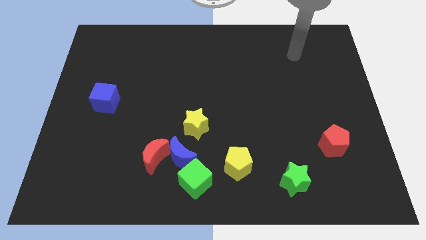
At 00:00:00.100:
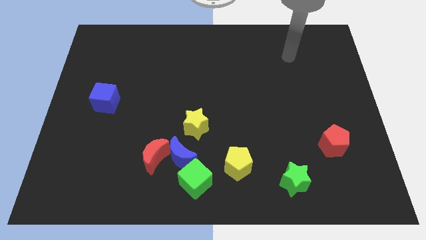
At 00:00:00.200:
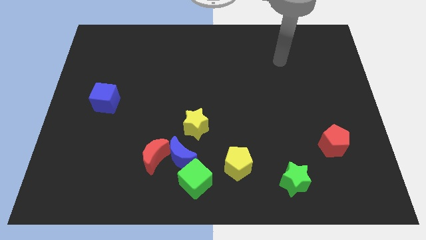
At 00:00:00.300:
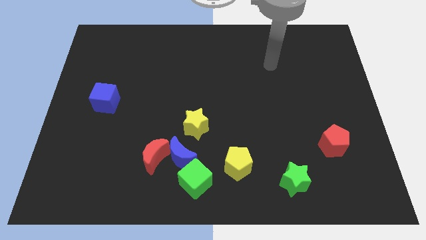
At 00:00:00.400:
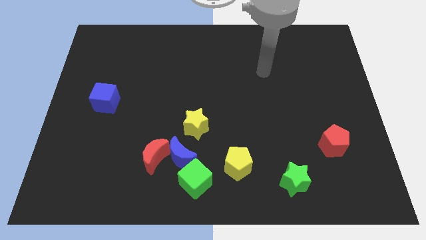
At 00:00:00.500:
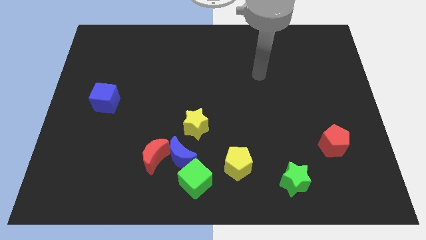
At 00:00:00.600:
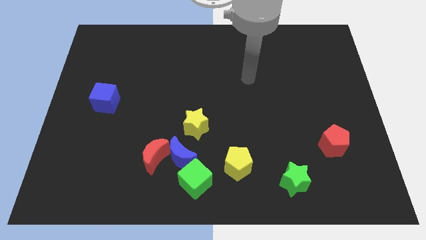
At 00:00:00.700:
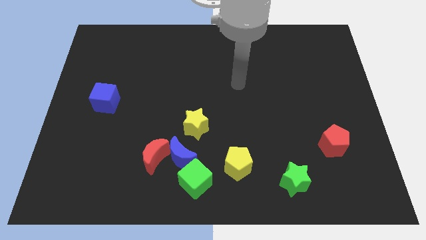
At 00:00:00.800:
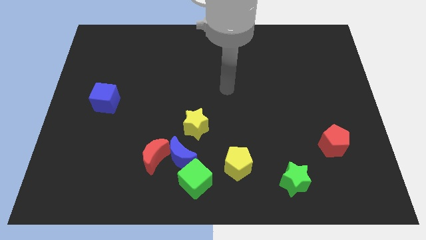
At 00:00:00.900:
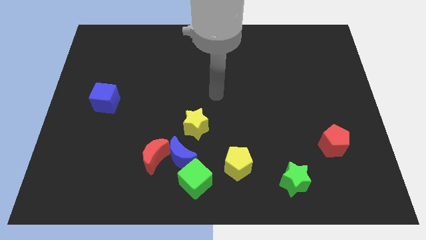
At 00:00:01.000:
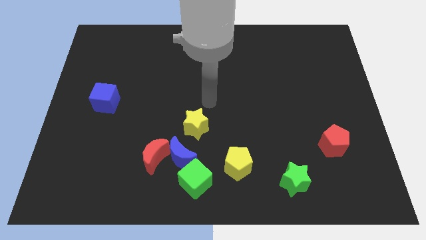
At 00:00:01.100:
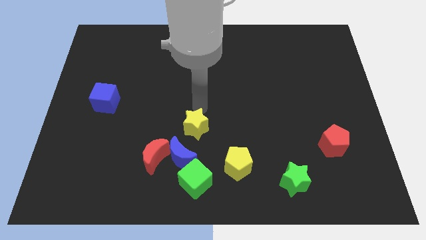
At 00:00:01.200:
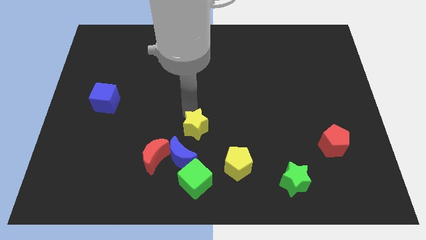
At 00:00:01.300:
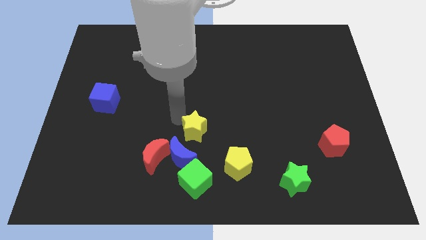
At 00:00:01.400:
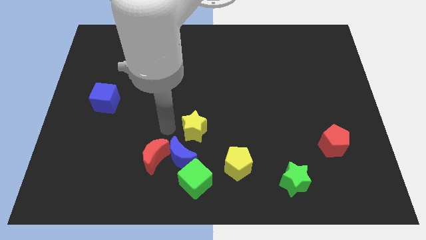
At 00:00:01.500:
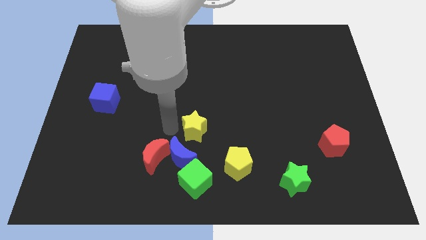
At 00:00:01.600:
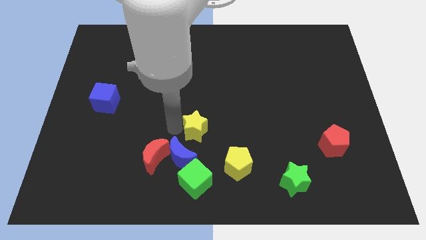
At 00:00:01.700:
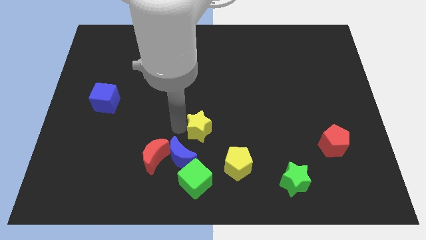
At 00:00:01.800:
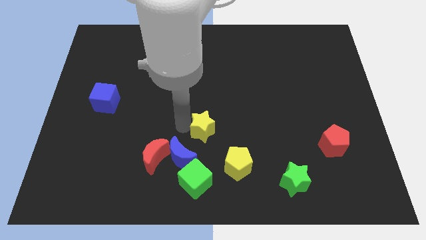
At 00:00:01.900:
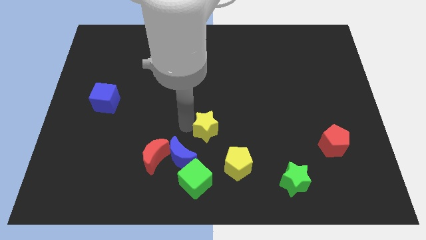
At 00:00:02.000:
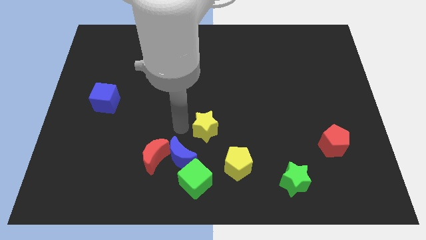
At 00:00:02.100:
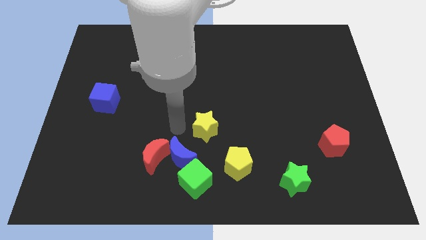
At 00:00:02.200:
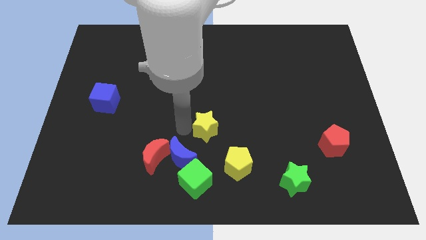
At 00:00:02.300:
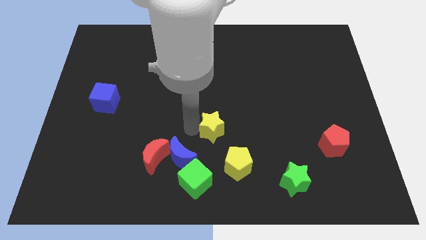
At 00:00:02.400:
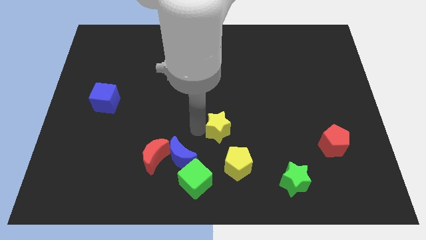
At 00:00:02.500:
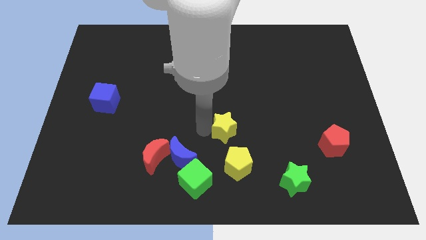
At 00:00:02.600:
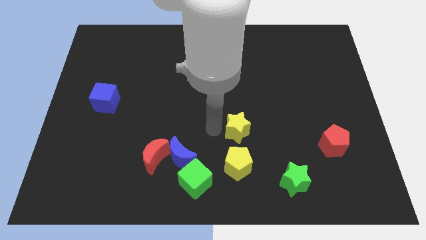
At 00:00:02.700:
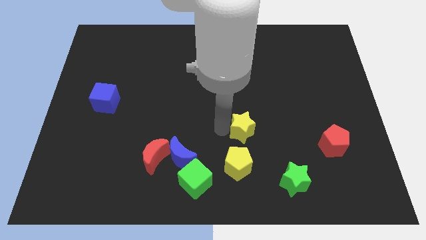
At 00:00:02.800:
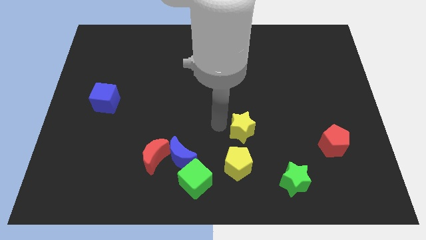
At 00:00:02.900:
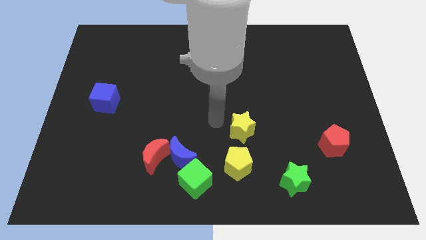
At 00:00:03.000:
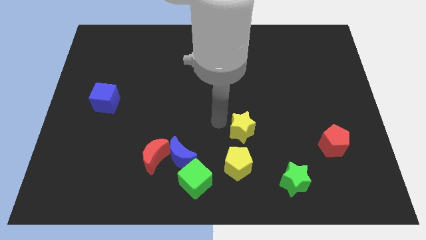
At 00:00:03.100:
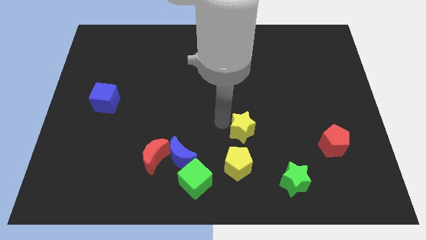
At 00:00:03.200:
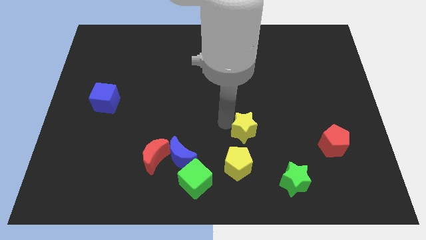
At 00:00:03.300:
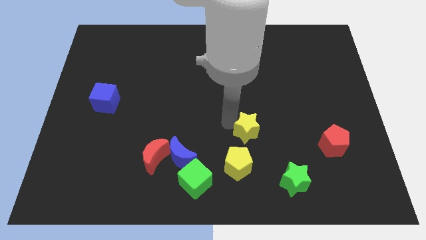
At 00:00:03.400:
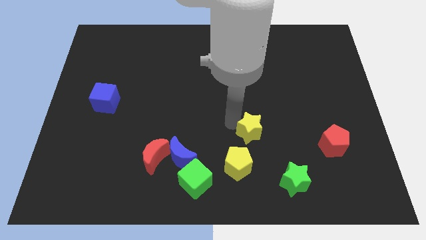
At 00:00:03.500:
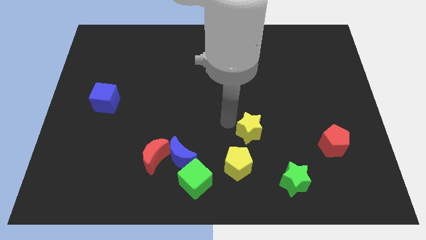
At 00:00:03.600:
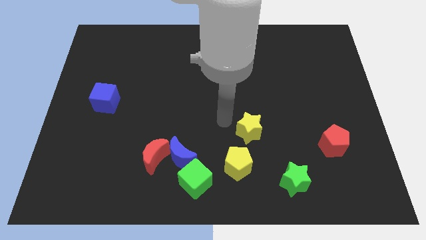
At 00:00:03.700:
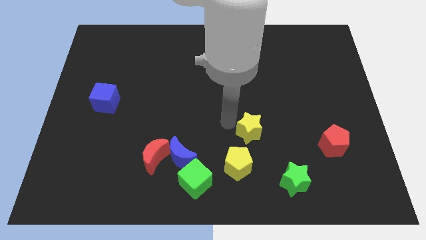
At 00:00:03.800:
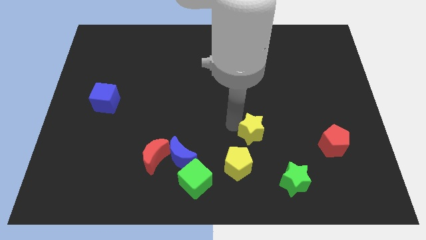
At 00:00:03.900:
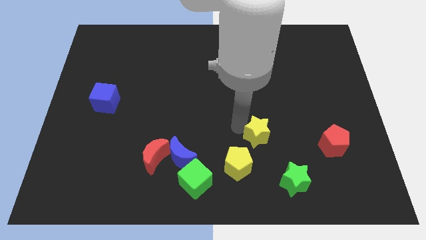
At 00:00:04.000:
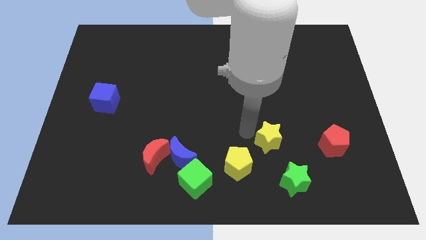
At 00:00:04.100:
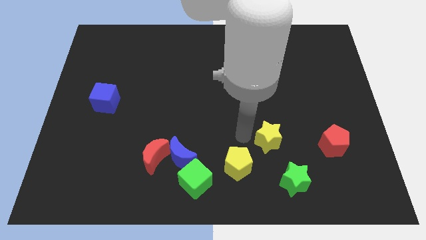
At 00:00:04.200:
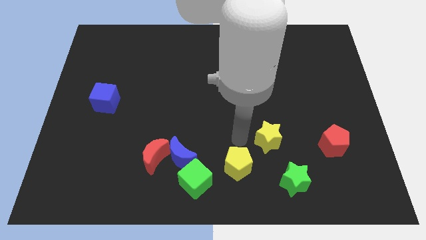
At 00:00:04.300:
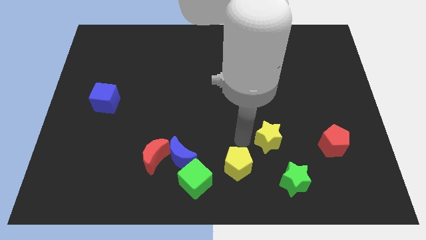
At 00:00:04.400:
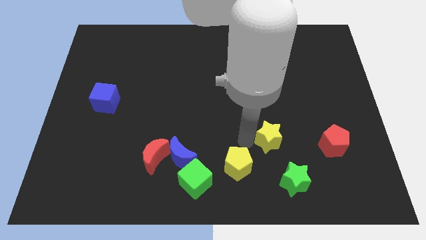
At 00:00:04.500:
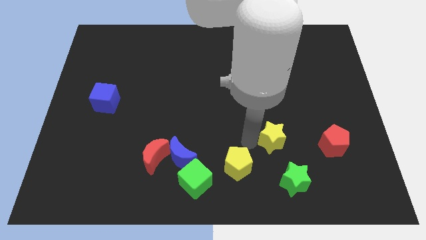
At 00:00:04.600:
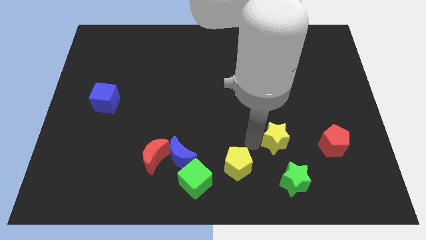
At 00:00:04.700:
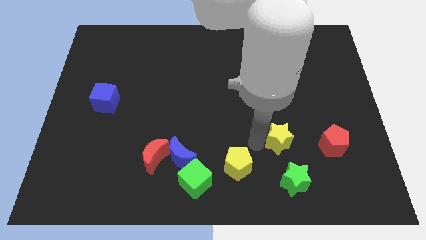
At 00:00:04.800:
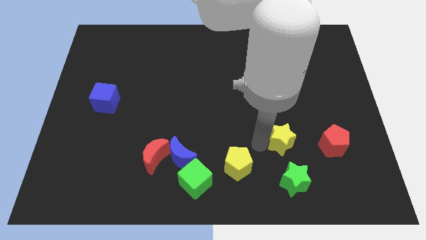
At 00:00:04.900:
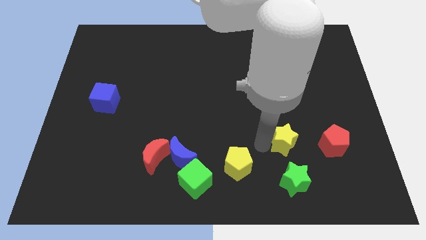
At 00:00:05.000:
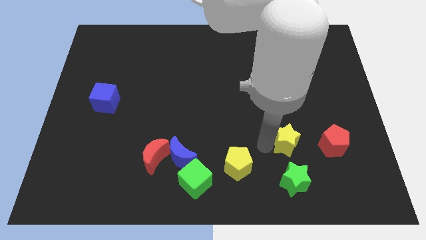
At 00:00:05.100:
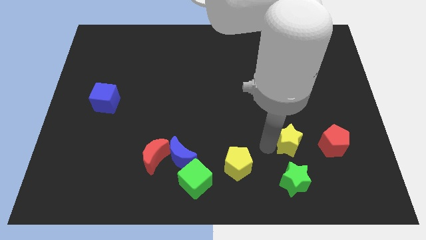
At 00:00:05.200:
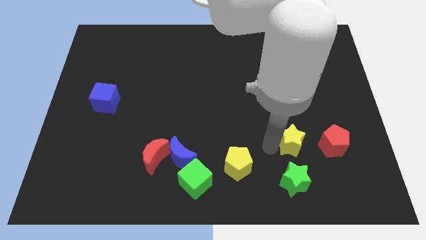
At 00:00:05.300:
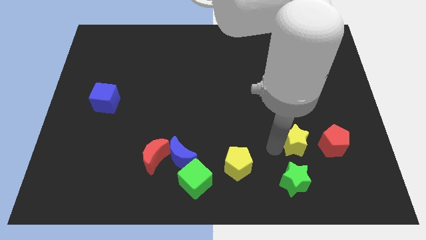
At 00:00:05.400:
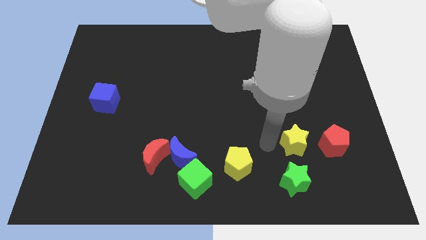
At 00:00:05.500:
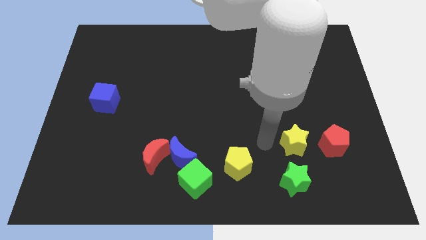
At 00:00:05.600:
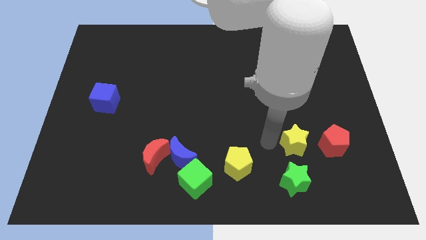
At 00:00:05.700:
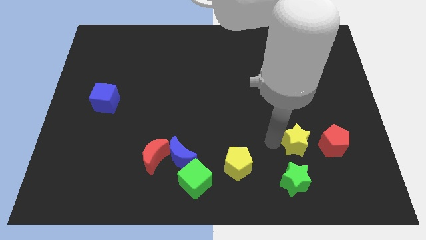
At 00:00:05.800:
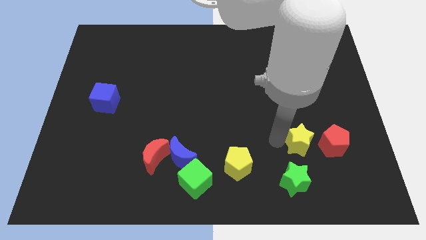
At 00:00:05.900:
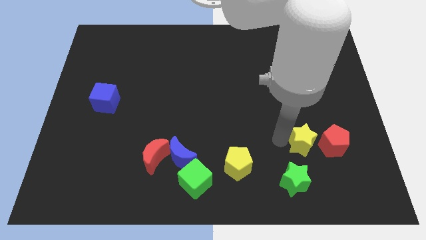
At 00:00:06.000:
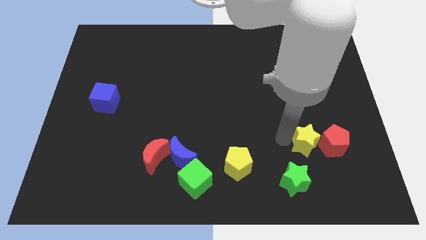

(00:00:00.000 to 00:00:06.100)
put the yellow star to the red pentagon
